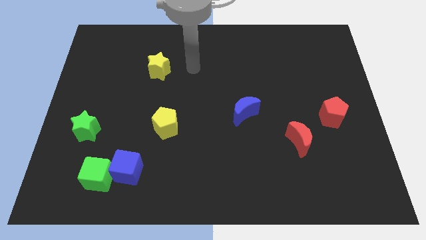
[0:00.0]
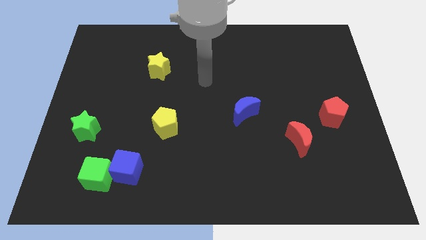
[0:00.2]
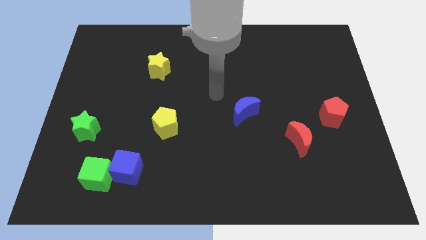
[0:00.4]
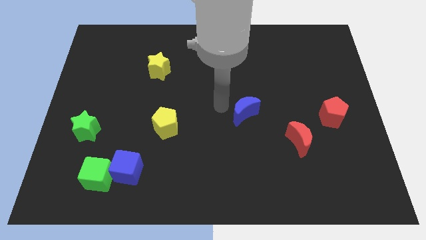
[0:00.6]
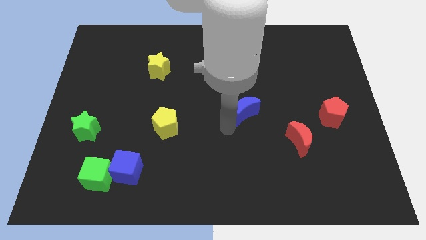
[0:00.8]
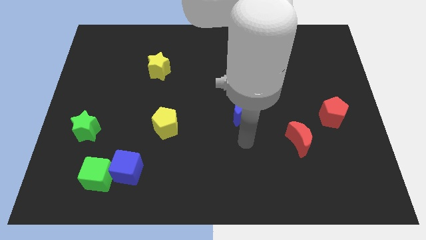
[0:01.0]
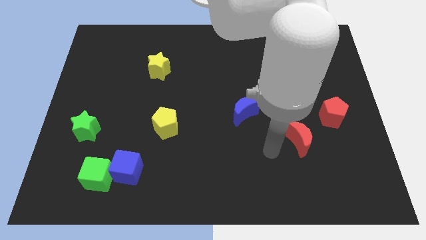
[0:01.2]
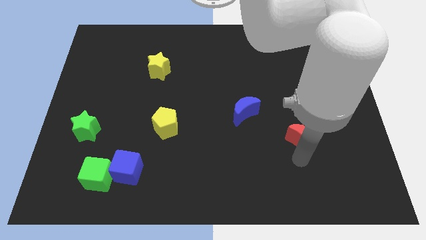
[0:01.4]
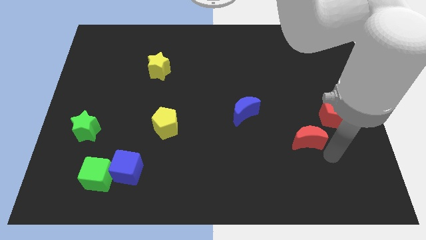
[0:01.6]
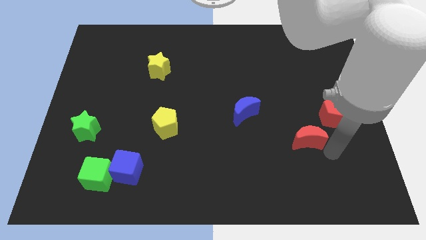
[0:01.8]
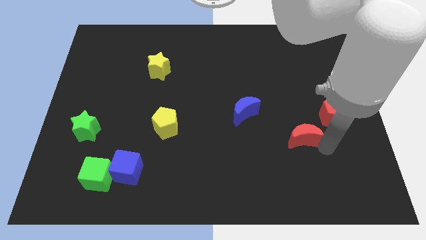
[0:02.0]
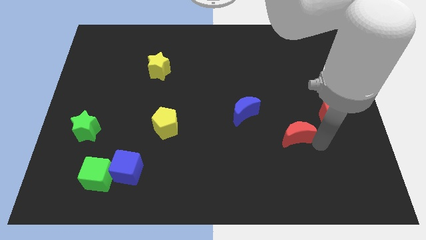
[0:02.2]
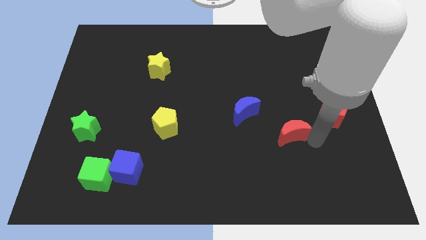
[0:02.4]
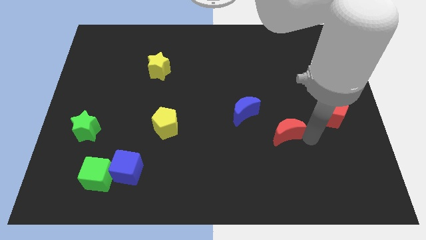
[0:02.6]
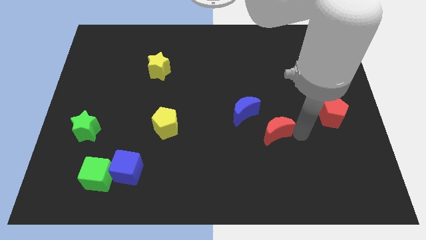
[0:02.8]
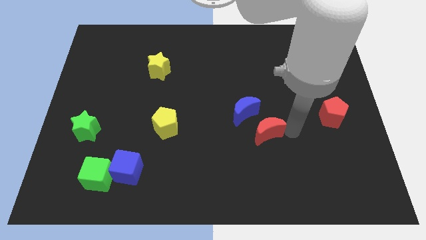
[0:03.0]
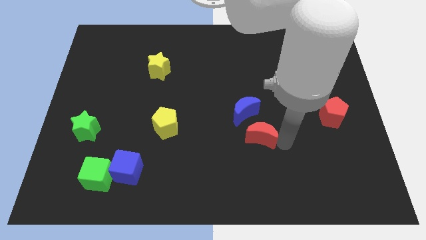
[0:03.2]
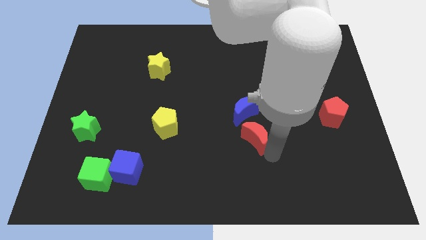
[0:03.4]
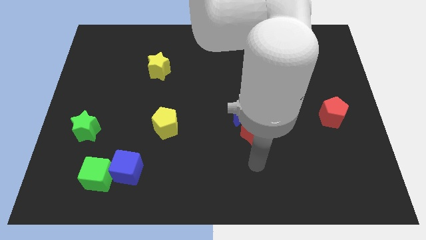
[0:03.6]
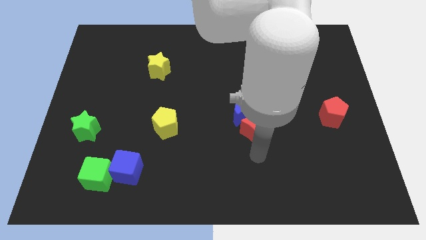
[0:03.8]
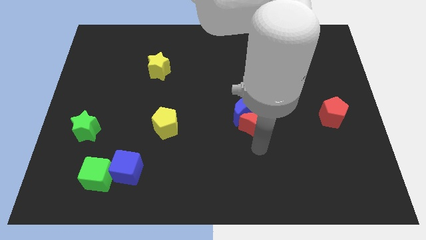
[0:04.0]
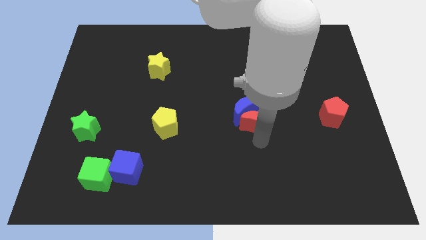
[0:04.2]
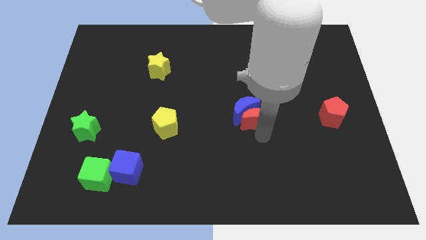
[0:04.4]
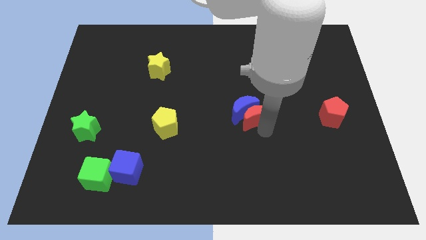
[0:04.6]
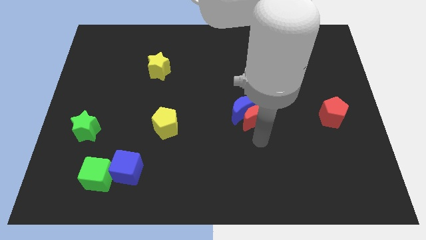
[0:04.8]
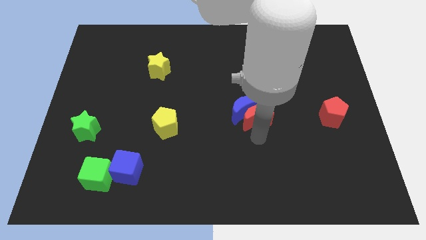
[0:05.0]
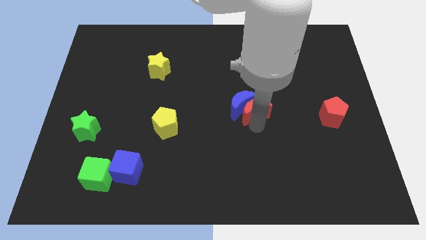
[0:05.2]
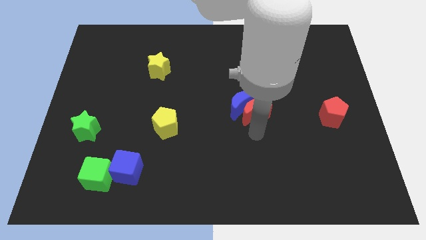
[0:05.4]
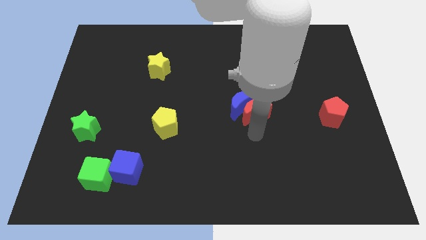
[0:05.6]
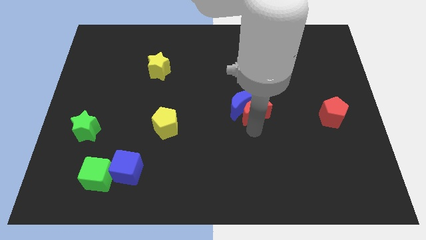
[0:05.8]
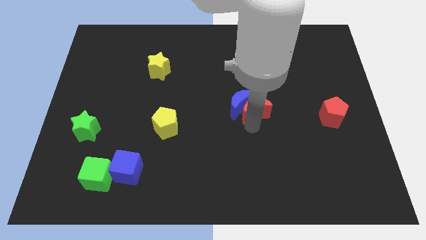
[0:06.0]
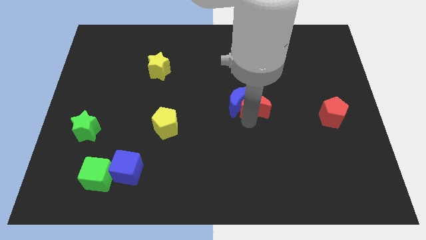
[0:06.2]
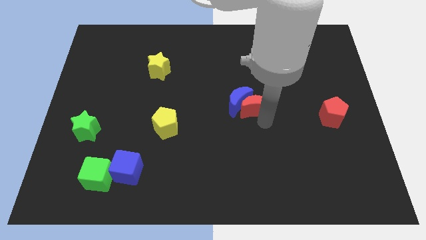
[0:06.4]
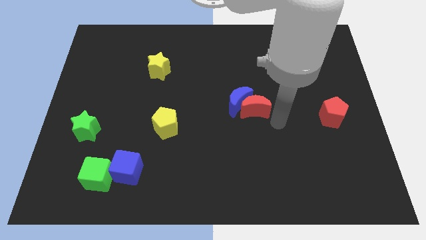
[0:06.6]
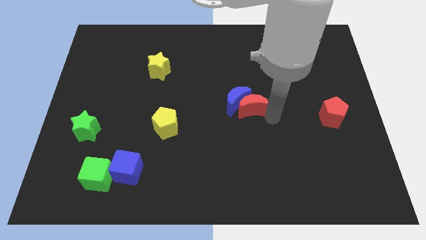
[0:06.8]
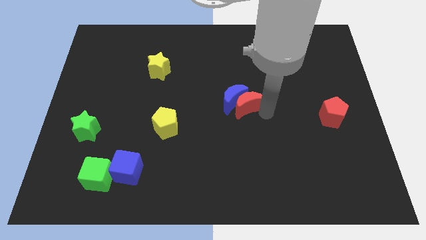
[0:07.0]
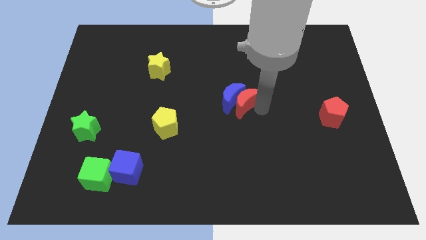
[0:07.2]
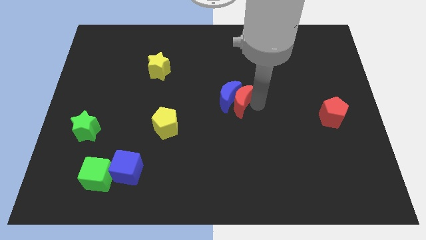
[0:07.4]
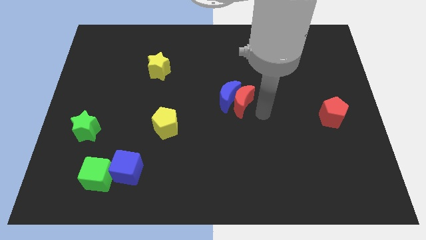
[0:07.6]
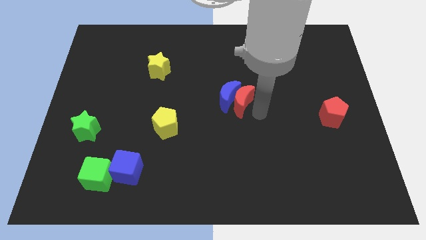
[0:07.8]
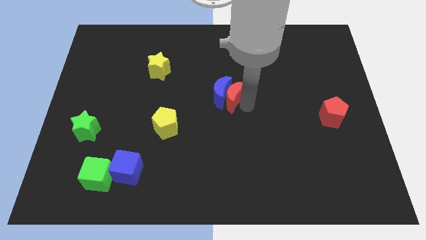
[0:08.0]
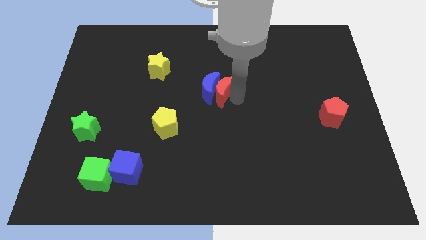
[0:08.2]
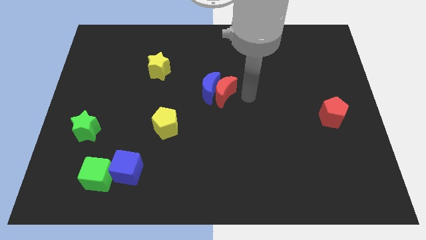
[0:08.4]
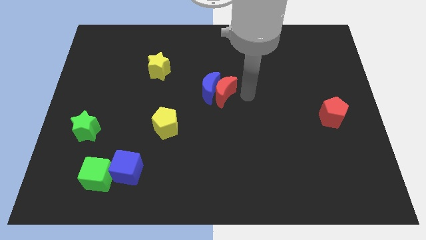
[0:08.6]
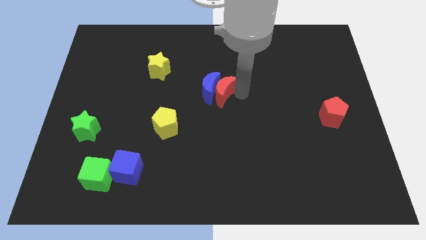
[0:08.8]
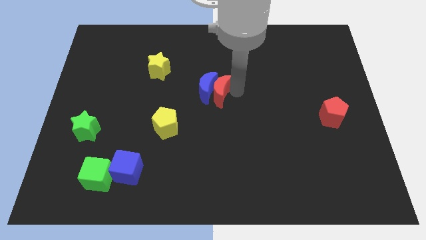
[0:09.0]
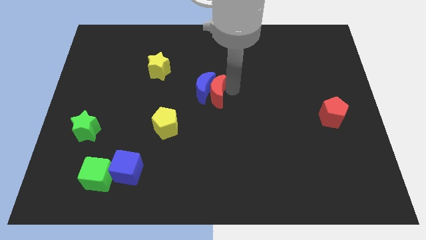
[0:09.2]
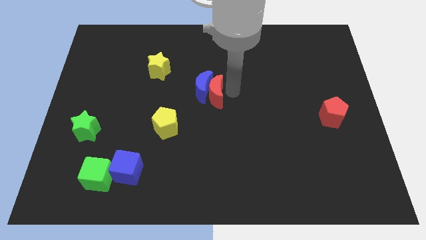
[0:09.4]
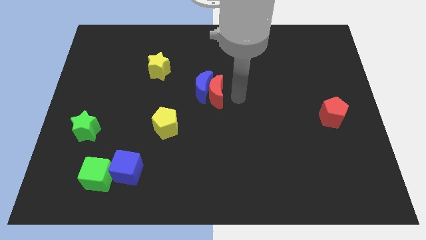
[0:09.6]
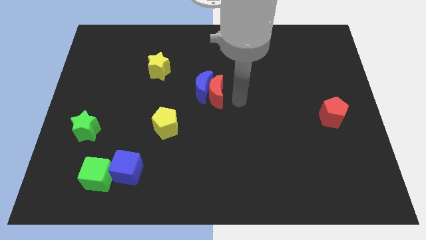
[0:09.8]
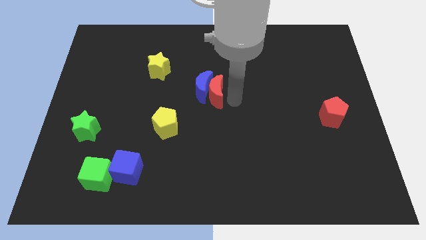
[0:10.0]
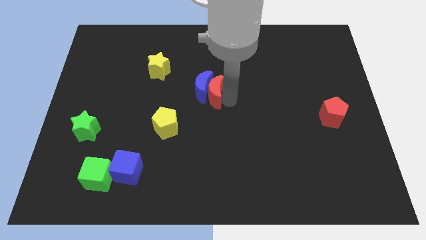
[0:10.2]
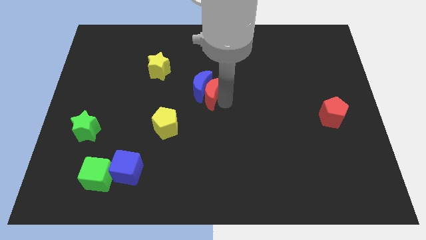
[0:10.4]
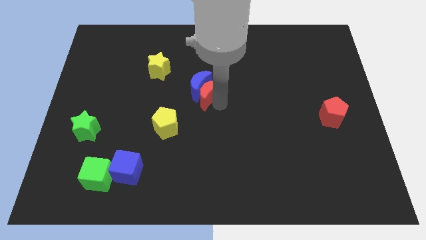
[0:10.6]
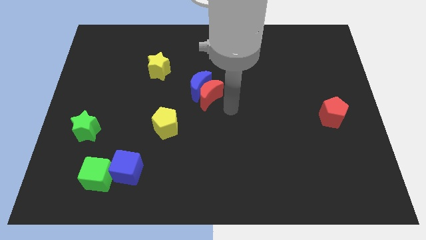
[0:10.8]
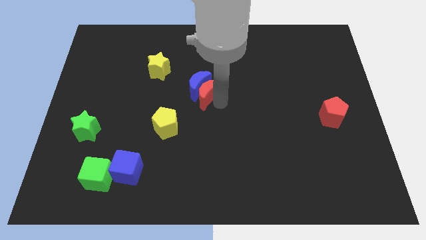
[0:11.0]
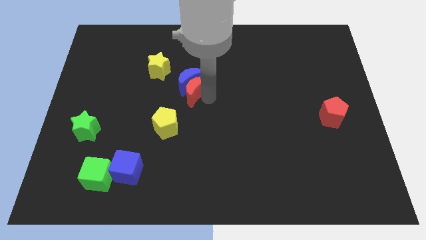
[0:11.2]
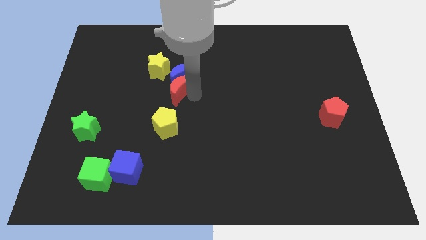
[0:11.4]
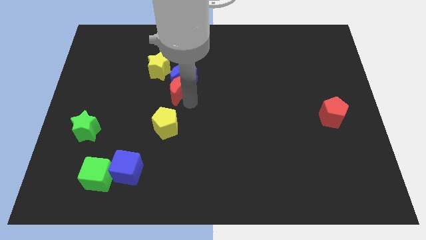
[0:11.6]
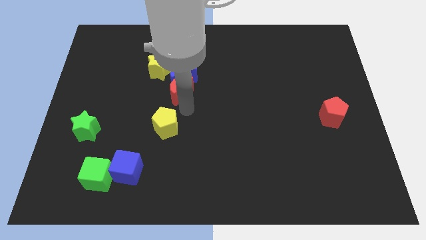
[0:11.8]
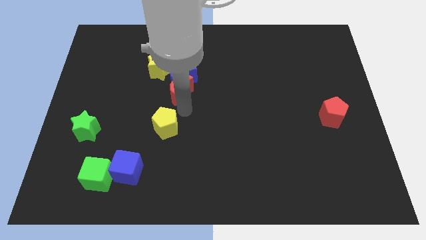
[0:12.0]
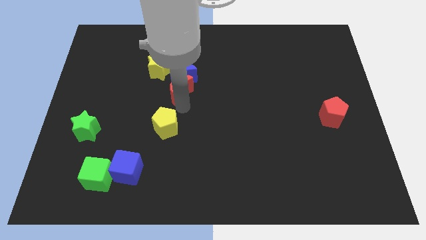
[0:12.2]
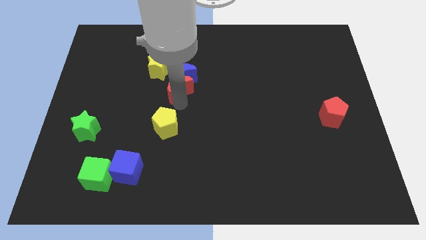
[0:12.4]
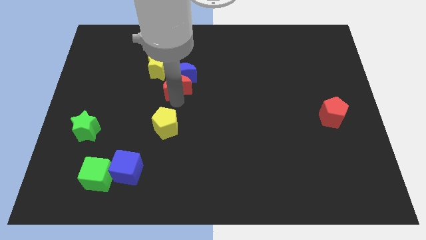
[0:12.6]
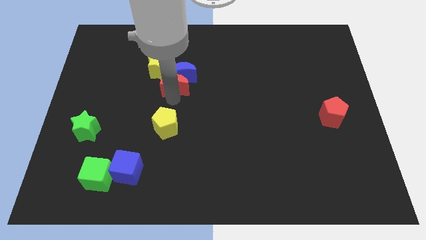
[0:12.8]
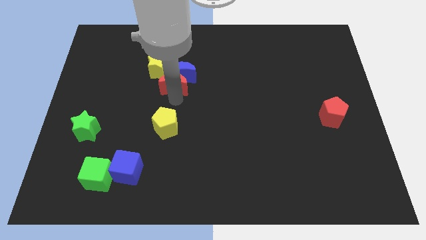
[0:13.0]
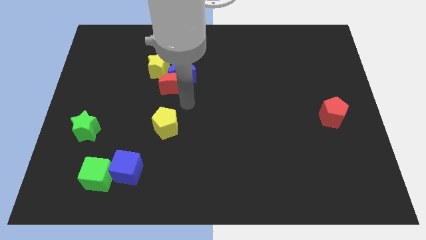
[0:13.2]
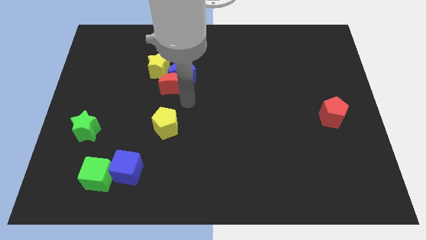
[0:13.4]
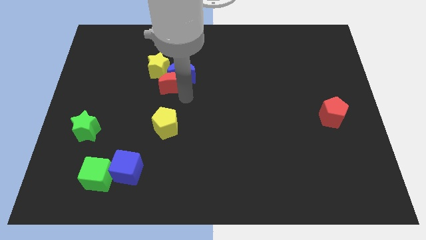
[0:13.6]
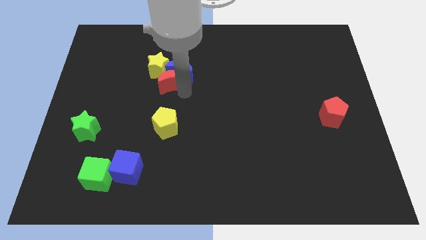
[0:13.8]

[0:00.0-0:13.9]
move the red moon towards the yellow star
